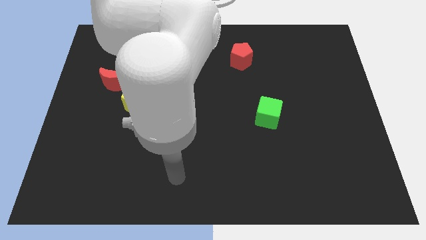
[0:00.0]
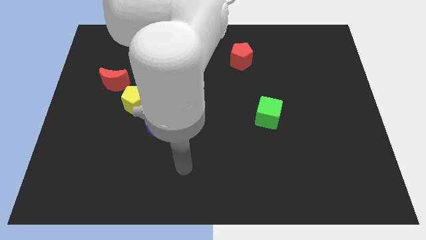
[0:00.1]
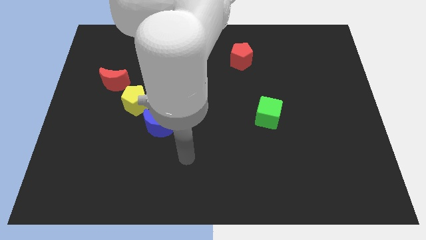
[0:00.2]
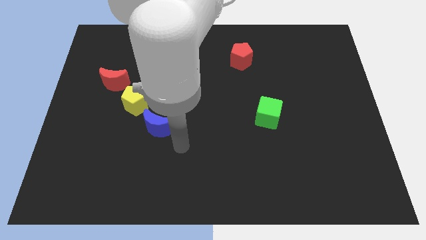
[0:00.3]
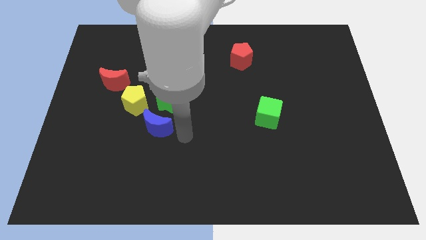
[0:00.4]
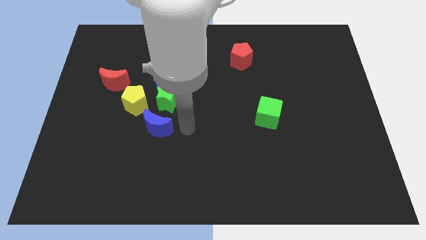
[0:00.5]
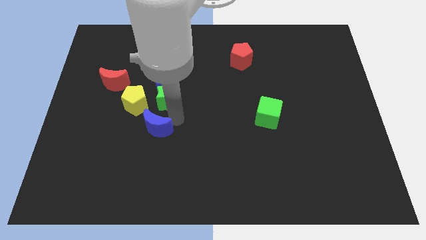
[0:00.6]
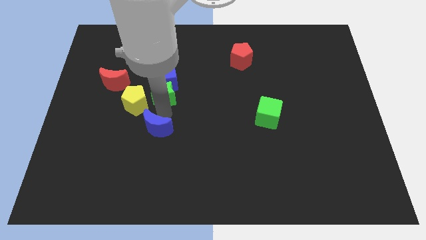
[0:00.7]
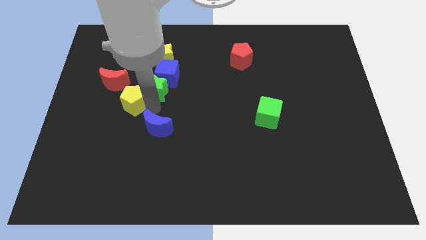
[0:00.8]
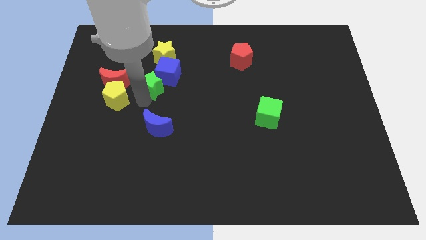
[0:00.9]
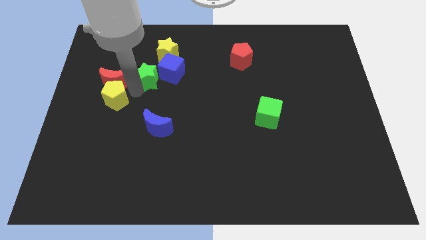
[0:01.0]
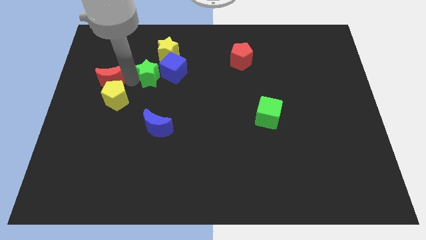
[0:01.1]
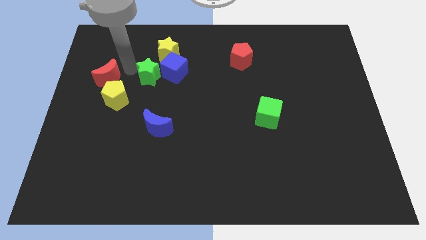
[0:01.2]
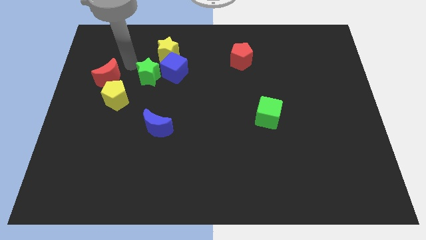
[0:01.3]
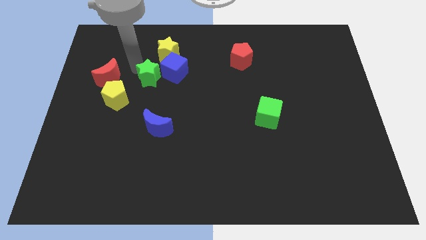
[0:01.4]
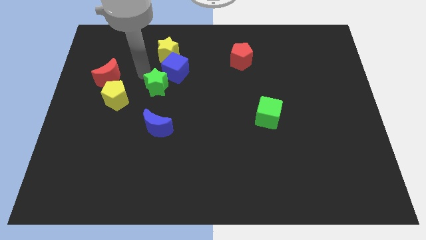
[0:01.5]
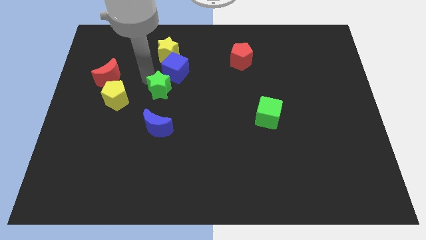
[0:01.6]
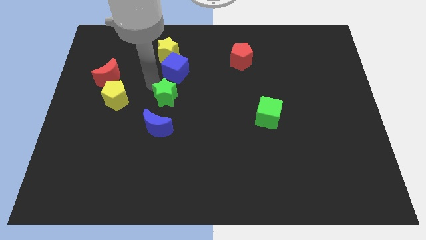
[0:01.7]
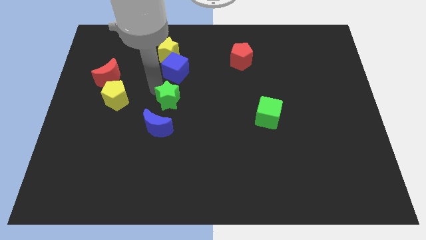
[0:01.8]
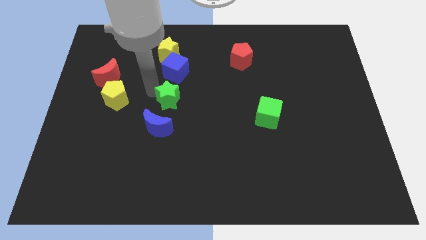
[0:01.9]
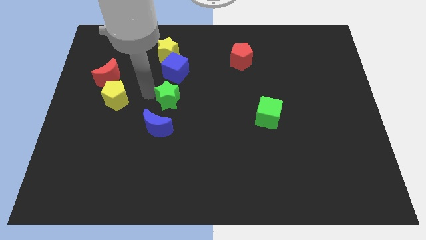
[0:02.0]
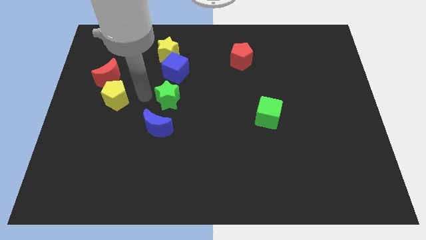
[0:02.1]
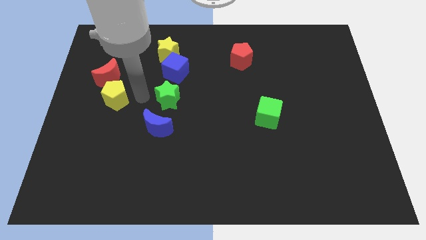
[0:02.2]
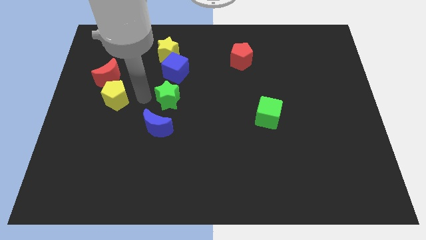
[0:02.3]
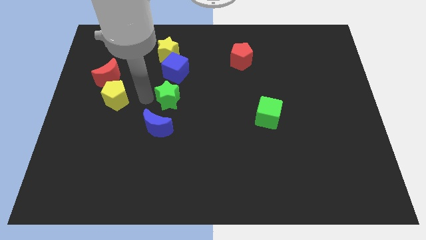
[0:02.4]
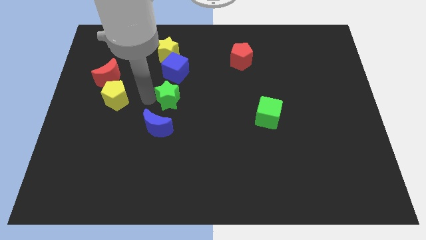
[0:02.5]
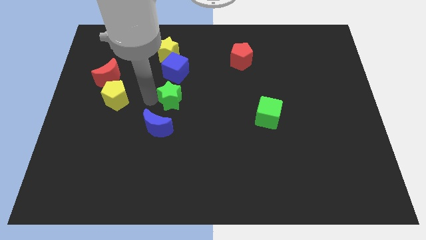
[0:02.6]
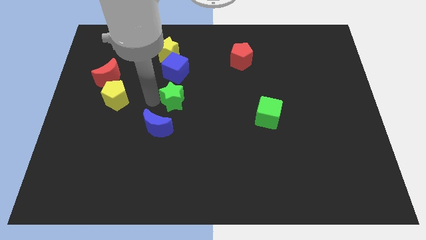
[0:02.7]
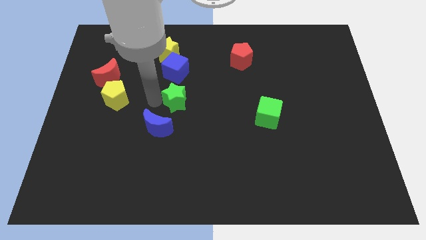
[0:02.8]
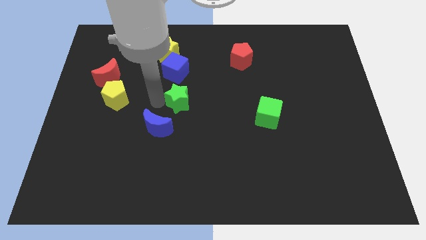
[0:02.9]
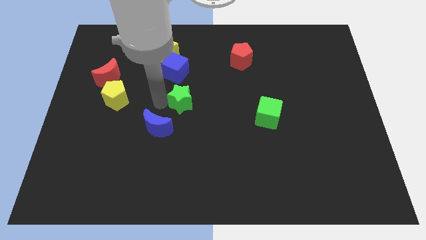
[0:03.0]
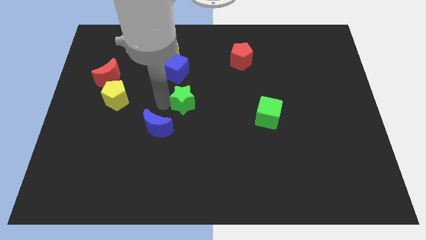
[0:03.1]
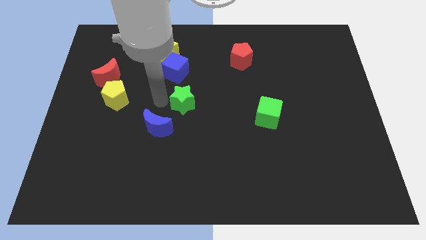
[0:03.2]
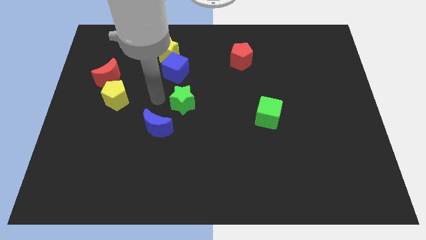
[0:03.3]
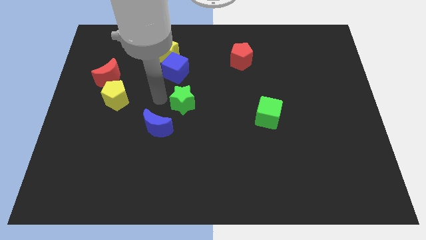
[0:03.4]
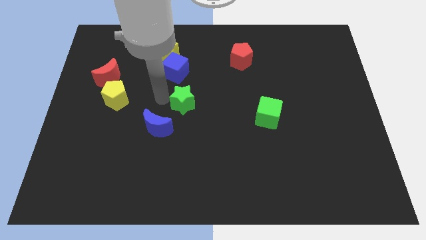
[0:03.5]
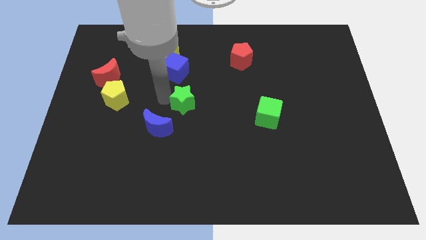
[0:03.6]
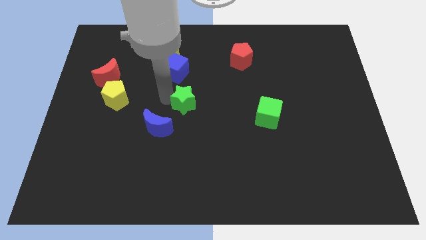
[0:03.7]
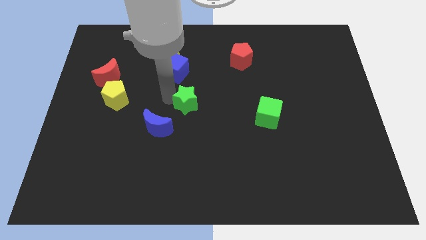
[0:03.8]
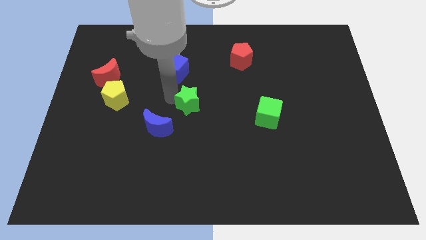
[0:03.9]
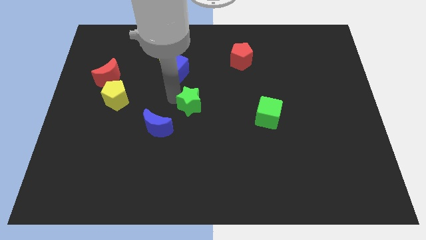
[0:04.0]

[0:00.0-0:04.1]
move the green star away from the blue cube, yellow pentagon, and blue moon

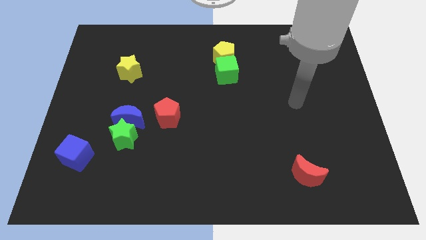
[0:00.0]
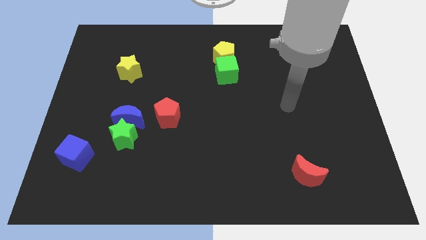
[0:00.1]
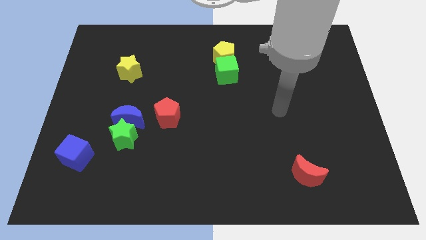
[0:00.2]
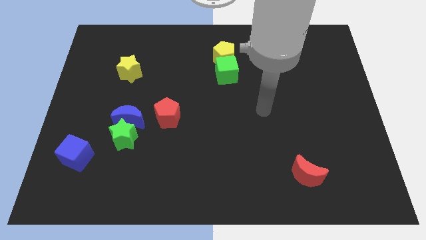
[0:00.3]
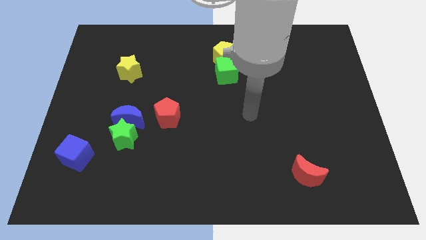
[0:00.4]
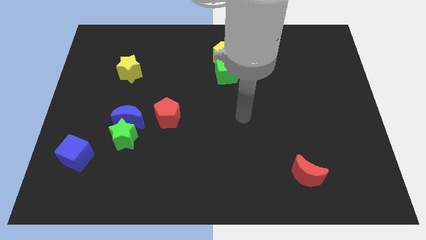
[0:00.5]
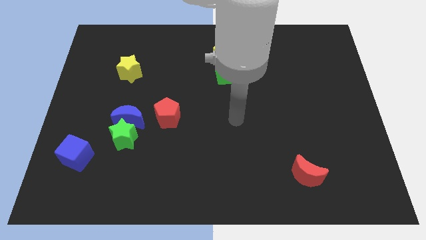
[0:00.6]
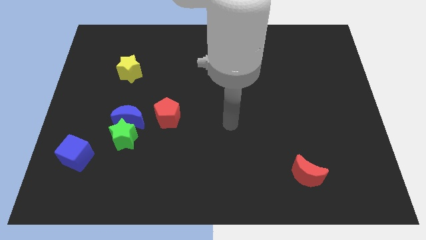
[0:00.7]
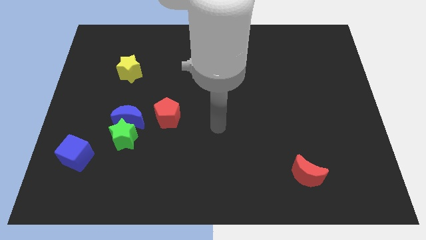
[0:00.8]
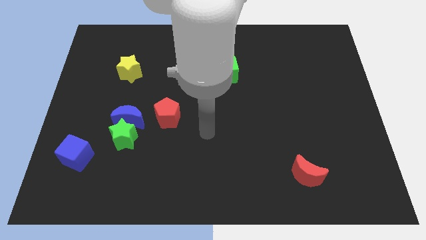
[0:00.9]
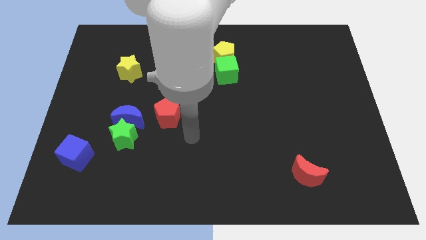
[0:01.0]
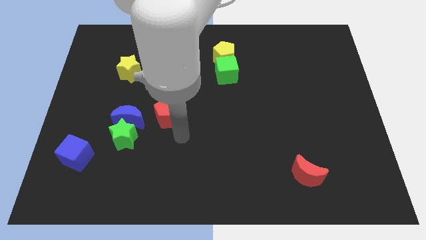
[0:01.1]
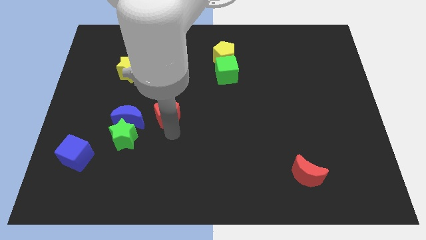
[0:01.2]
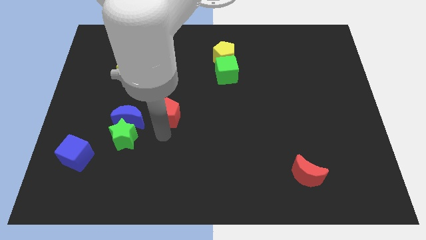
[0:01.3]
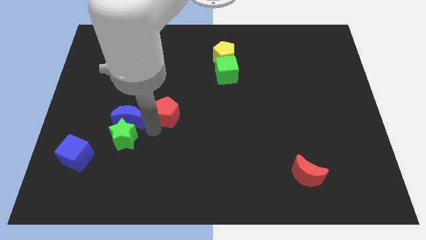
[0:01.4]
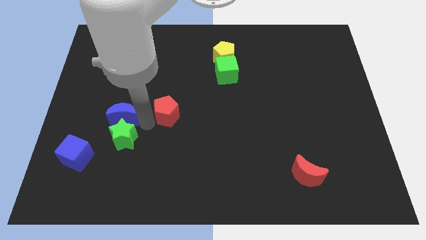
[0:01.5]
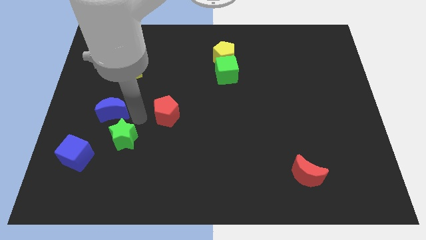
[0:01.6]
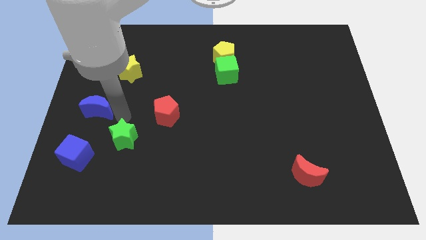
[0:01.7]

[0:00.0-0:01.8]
separate the green star from the blue moon

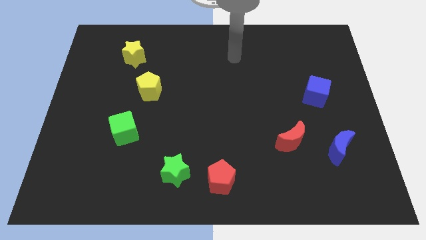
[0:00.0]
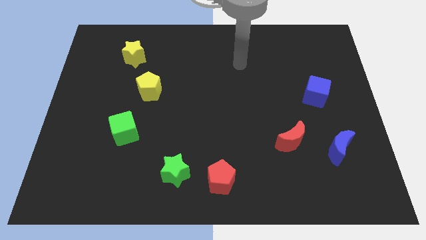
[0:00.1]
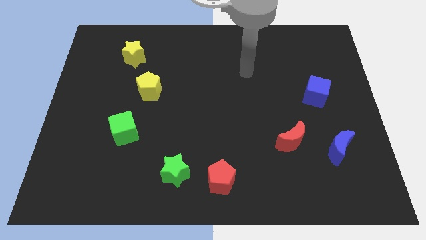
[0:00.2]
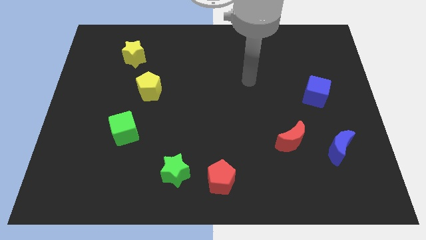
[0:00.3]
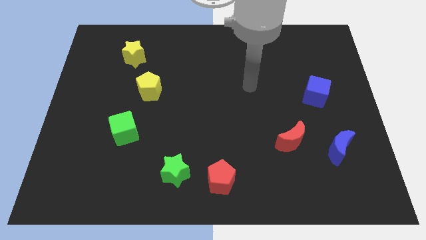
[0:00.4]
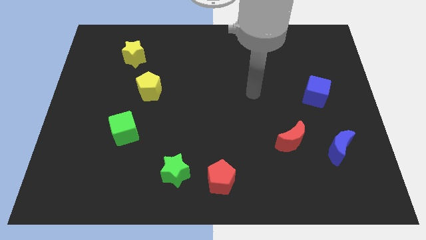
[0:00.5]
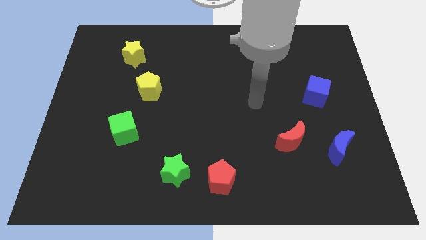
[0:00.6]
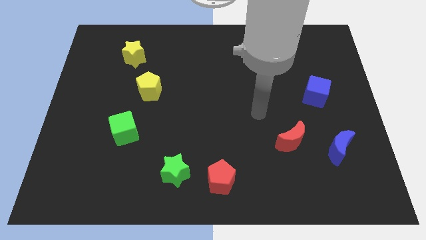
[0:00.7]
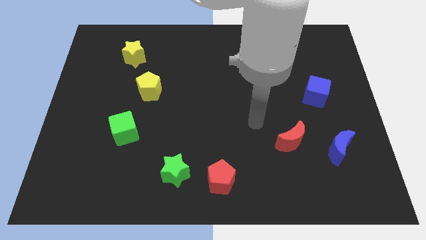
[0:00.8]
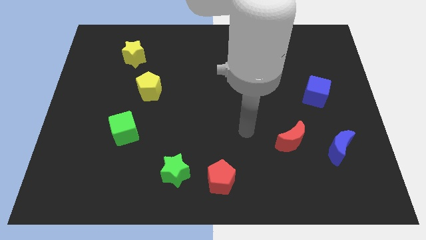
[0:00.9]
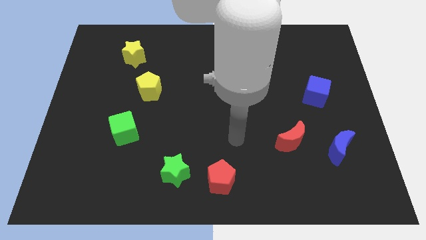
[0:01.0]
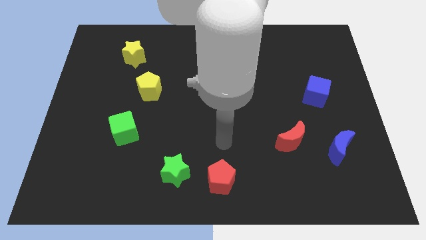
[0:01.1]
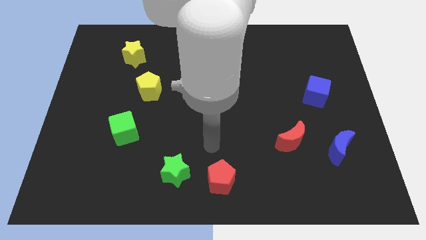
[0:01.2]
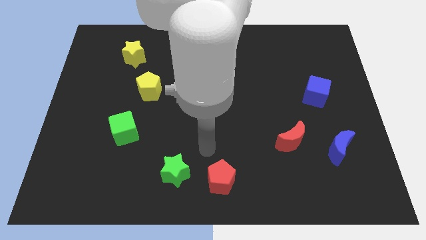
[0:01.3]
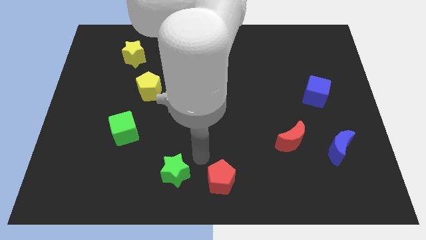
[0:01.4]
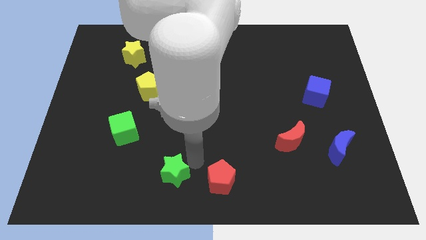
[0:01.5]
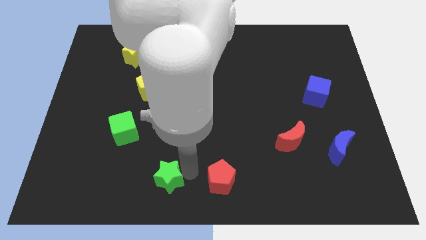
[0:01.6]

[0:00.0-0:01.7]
pull the red pentagon apart from the green star

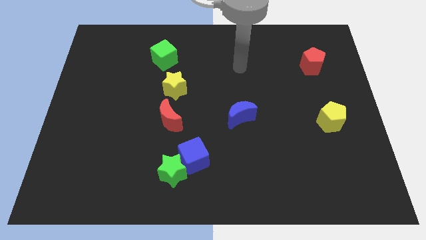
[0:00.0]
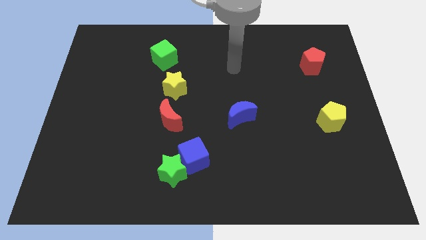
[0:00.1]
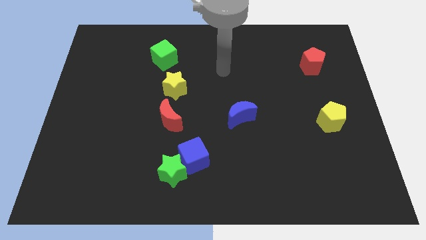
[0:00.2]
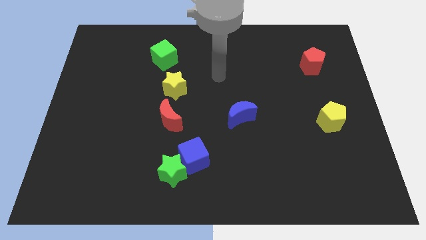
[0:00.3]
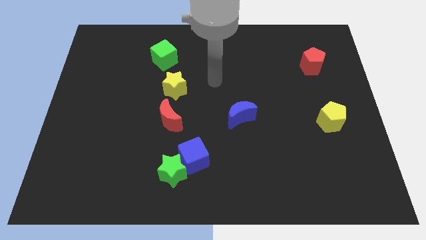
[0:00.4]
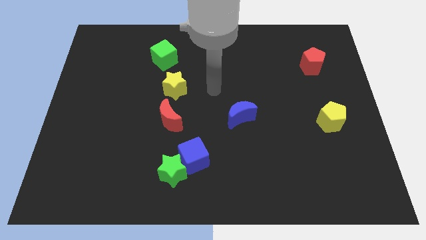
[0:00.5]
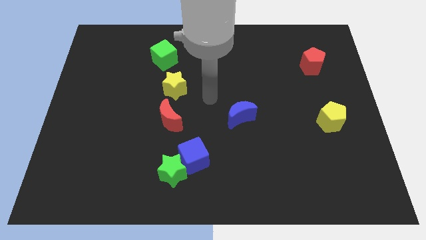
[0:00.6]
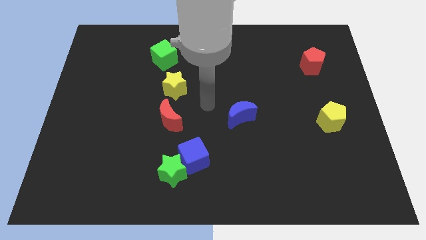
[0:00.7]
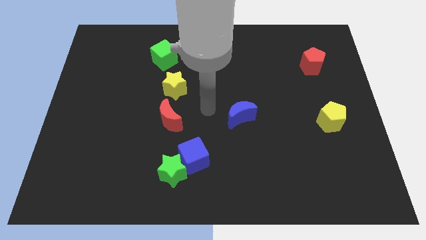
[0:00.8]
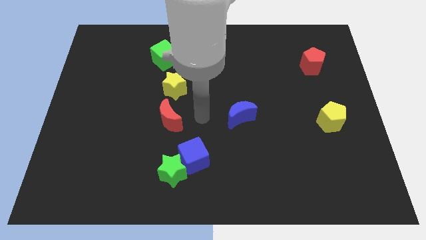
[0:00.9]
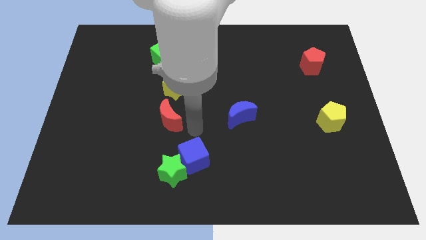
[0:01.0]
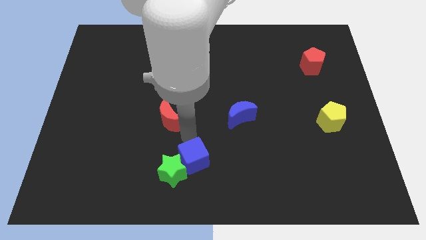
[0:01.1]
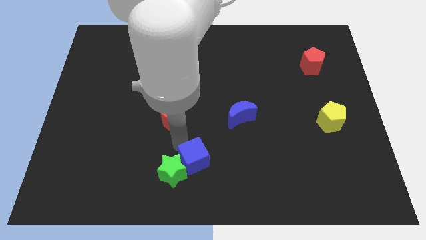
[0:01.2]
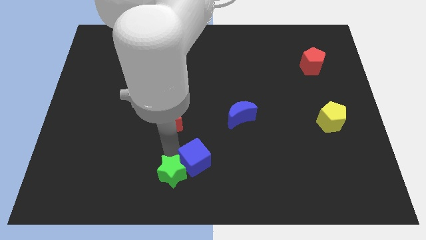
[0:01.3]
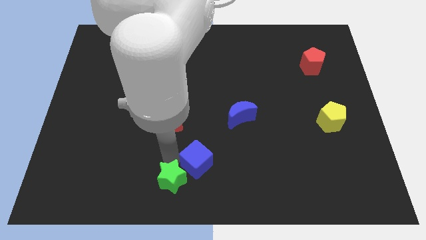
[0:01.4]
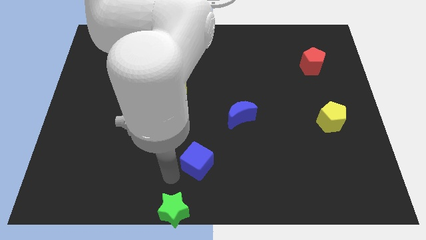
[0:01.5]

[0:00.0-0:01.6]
separate the blue cube from the green star
